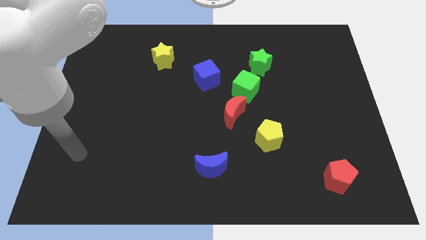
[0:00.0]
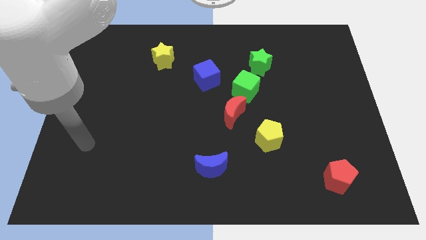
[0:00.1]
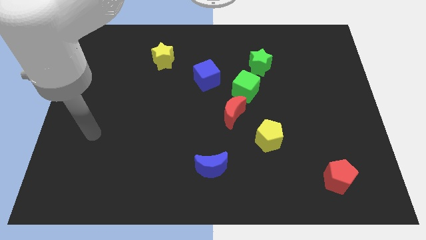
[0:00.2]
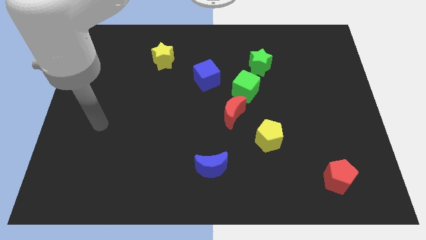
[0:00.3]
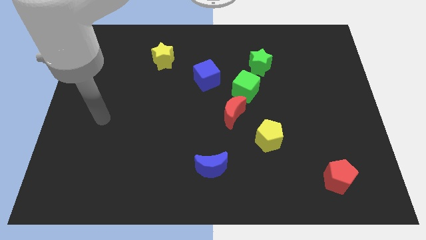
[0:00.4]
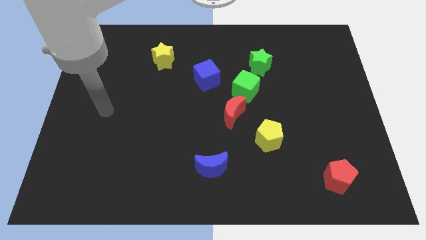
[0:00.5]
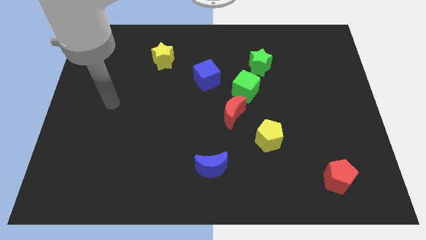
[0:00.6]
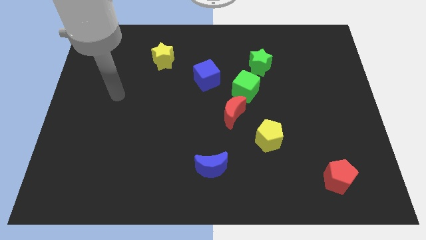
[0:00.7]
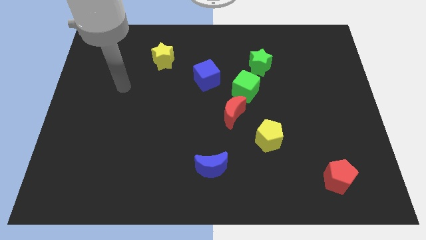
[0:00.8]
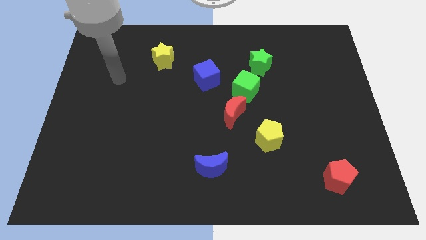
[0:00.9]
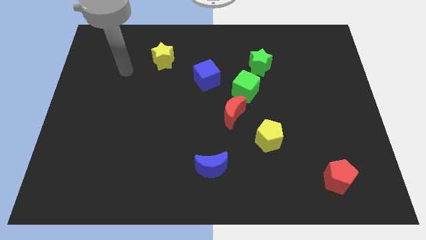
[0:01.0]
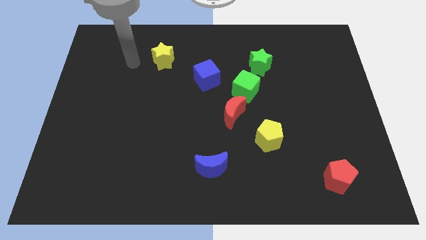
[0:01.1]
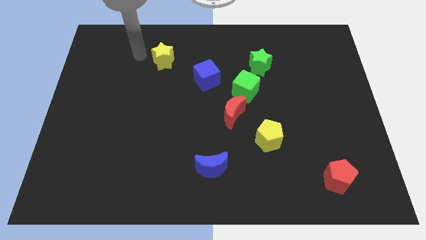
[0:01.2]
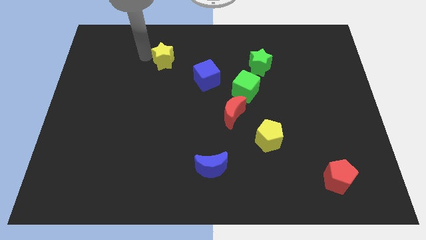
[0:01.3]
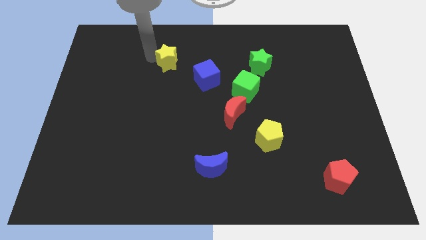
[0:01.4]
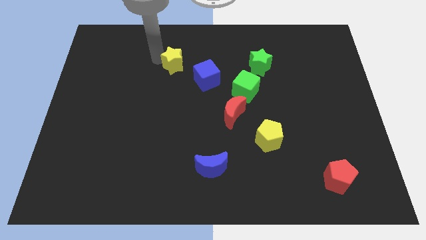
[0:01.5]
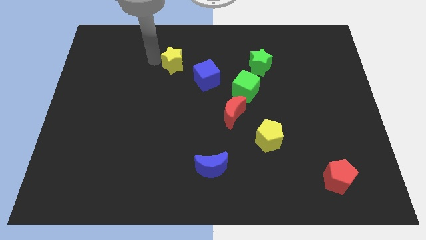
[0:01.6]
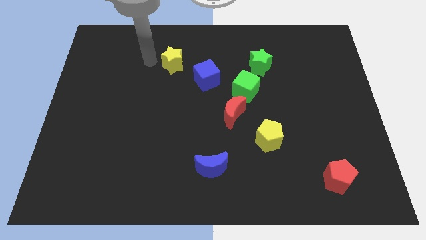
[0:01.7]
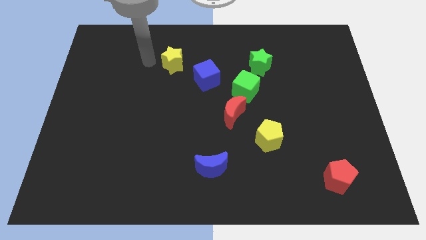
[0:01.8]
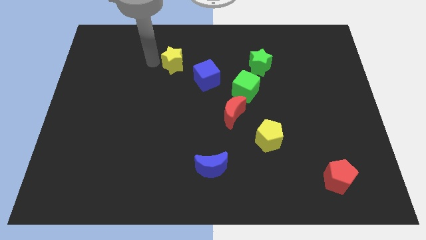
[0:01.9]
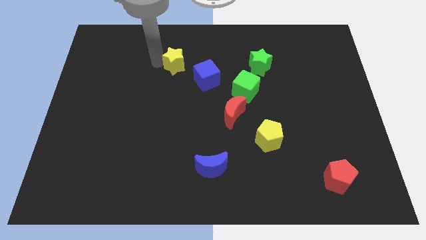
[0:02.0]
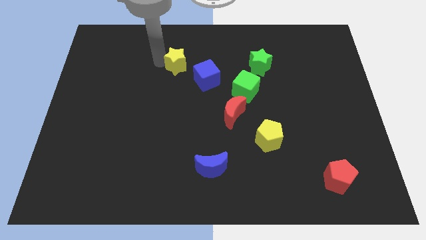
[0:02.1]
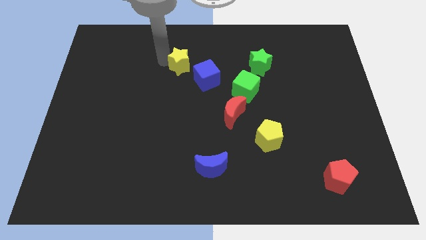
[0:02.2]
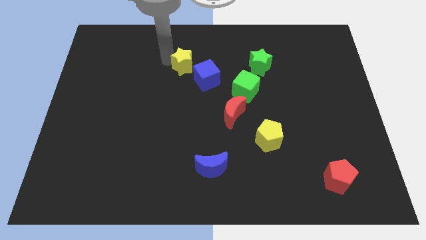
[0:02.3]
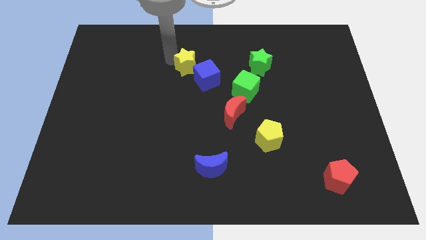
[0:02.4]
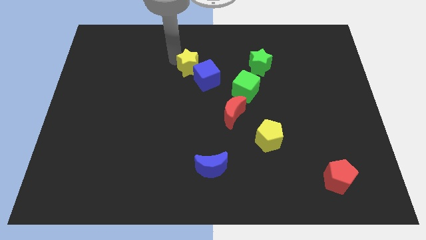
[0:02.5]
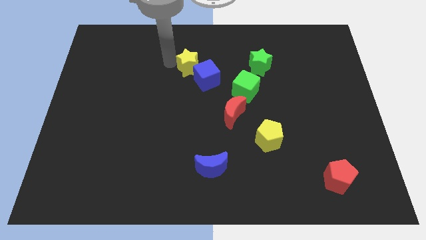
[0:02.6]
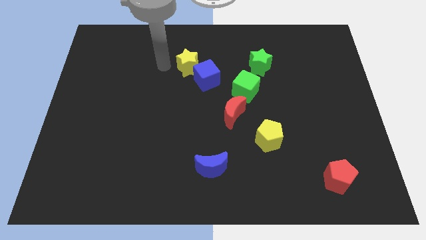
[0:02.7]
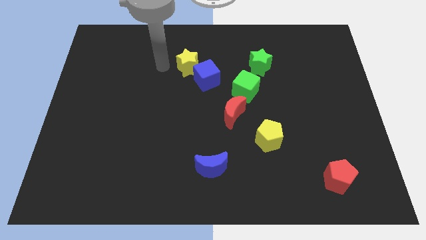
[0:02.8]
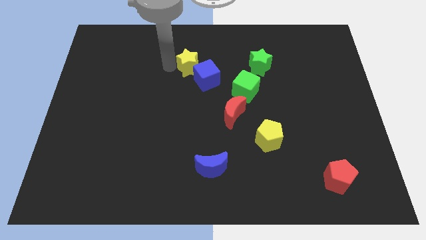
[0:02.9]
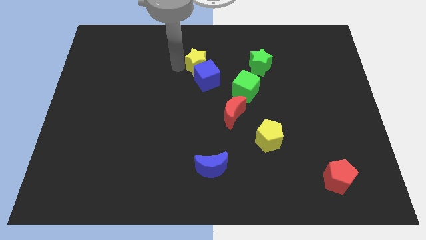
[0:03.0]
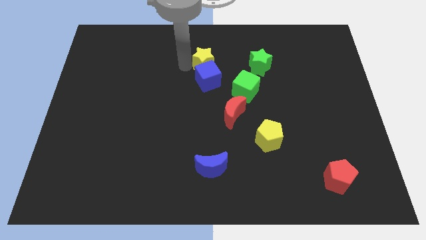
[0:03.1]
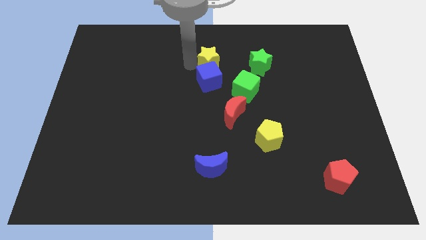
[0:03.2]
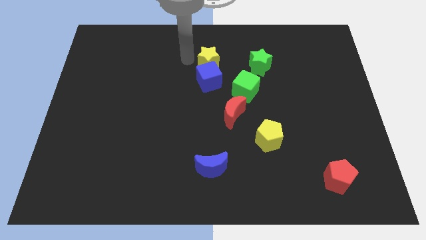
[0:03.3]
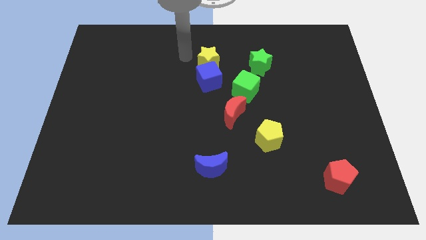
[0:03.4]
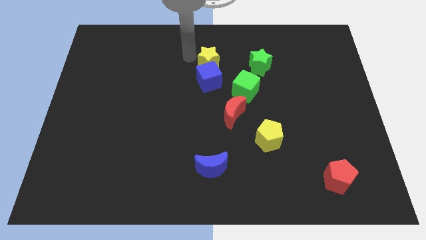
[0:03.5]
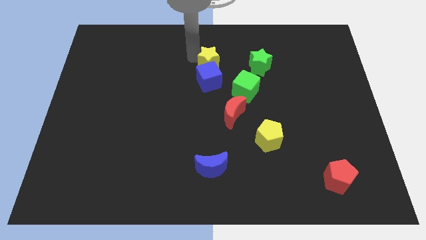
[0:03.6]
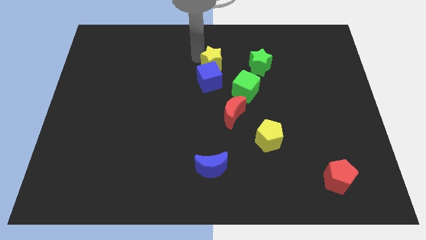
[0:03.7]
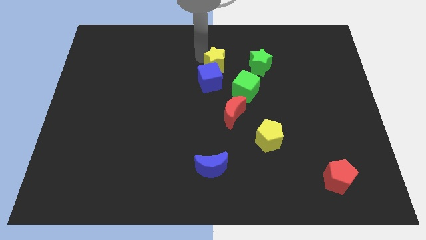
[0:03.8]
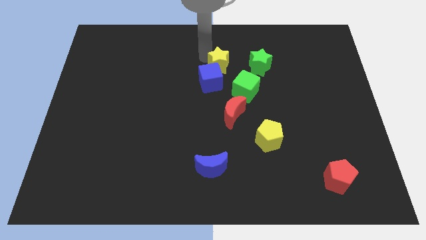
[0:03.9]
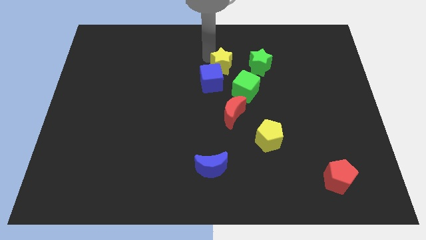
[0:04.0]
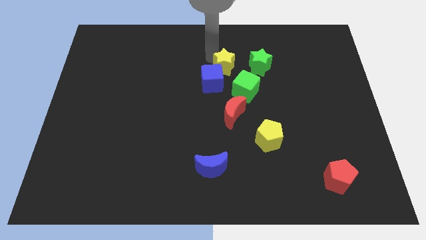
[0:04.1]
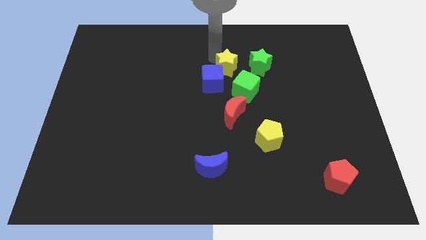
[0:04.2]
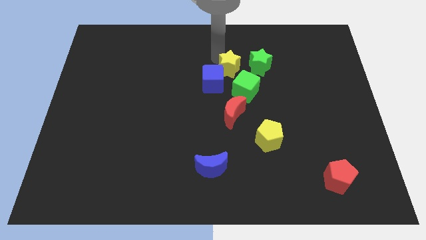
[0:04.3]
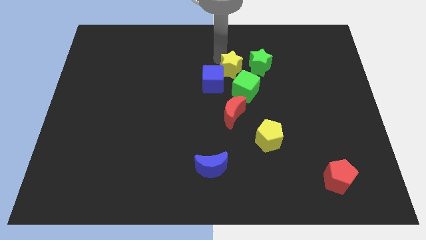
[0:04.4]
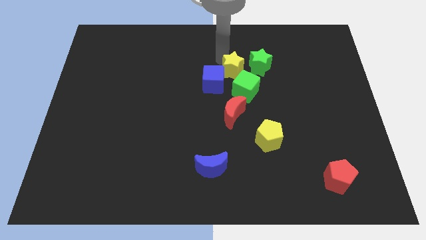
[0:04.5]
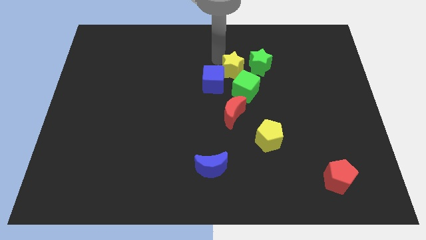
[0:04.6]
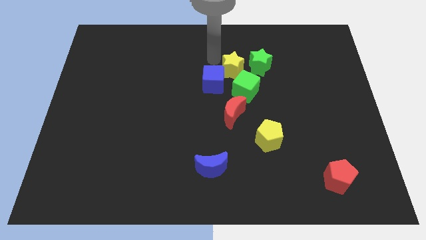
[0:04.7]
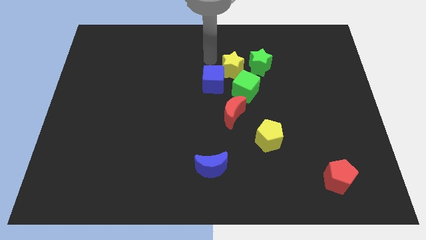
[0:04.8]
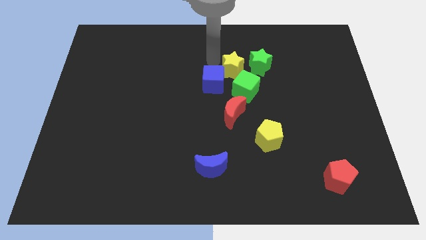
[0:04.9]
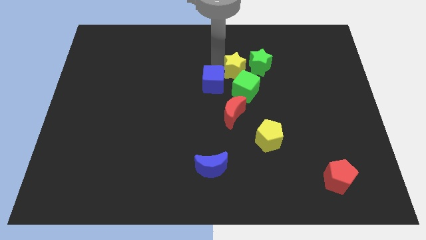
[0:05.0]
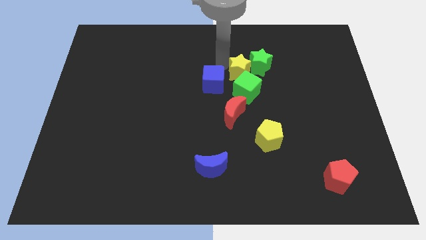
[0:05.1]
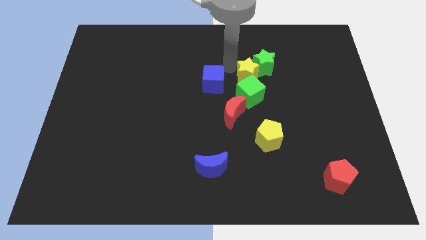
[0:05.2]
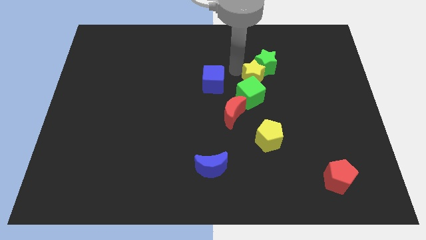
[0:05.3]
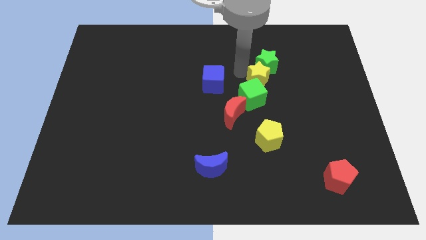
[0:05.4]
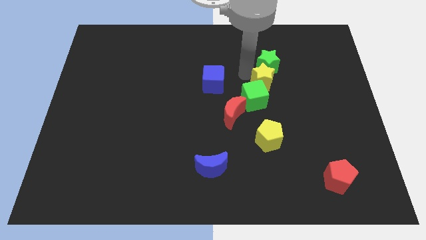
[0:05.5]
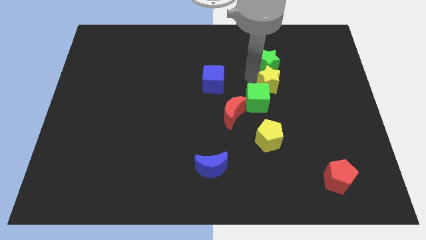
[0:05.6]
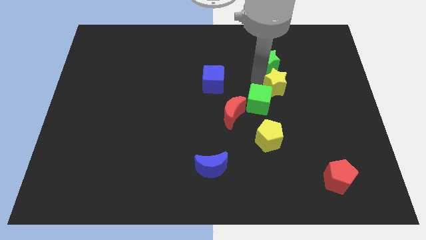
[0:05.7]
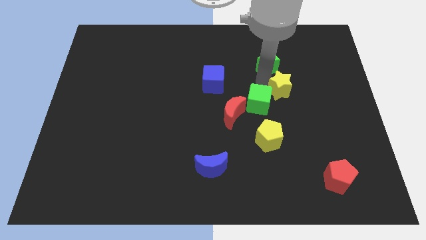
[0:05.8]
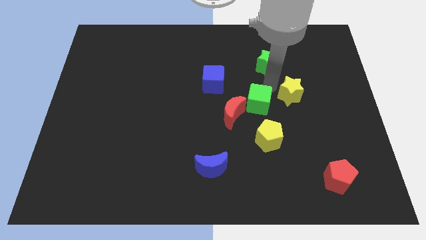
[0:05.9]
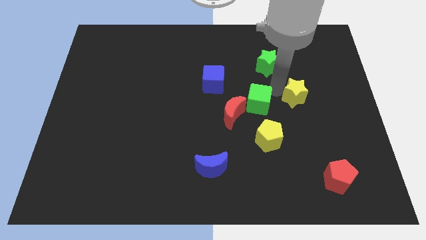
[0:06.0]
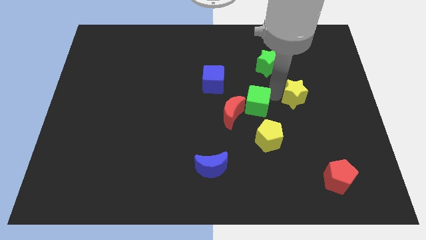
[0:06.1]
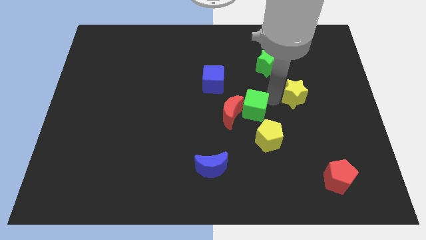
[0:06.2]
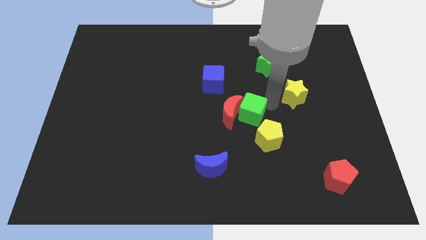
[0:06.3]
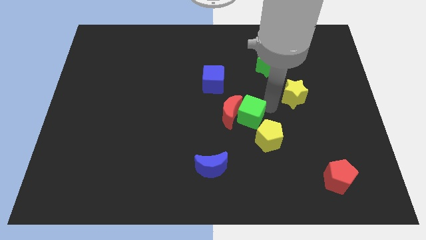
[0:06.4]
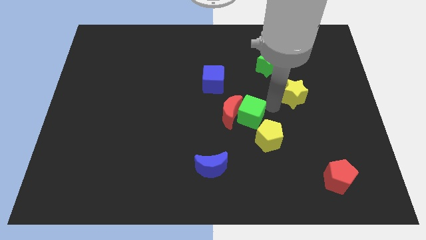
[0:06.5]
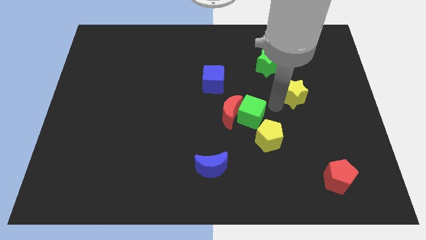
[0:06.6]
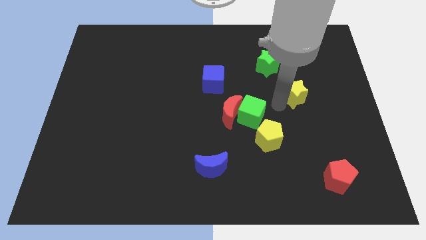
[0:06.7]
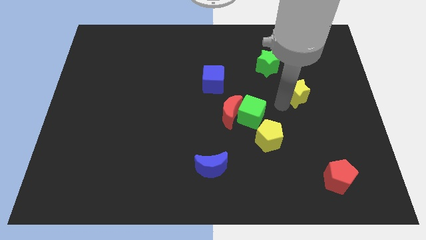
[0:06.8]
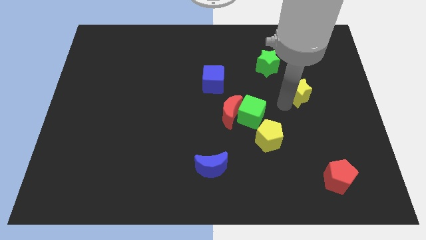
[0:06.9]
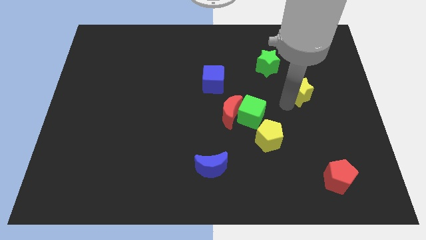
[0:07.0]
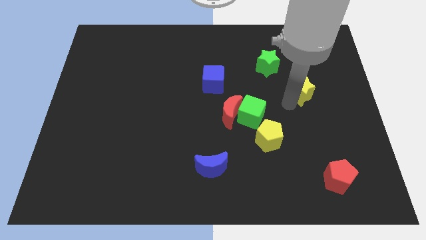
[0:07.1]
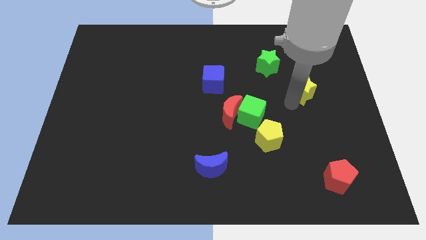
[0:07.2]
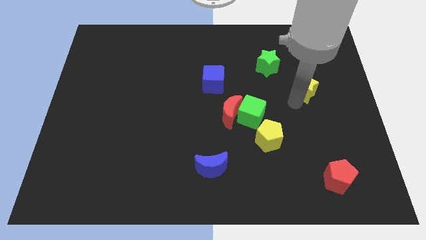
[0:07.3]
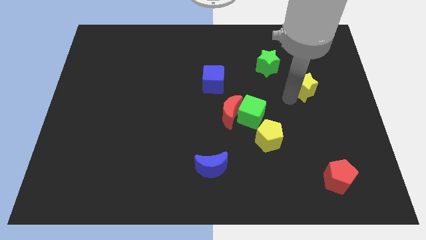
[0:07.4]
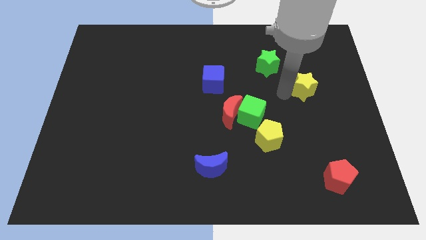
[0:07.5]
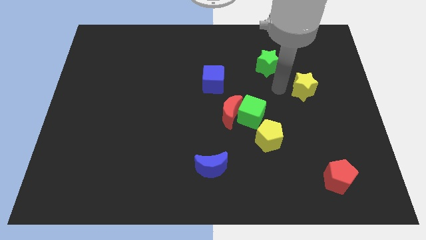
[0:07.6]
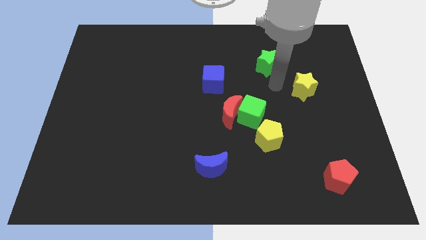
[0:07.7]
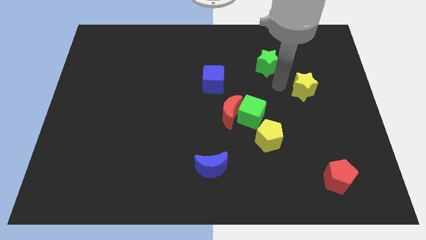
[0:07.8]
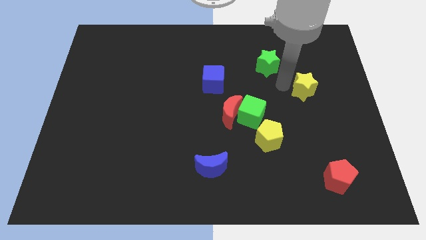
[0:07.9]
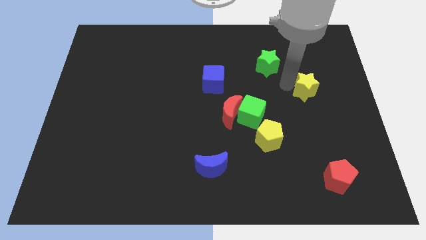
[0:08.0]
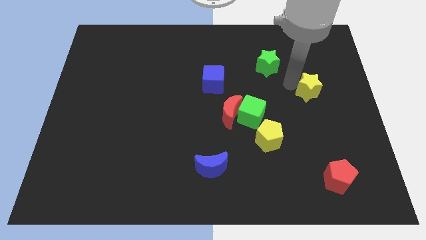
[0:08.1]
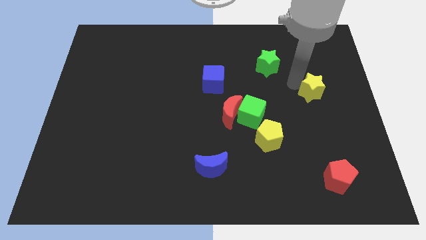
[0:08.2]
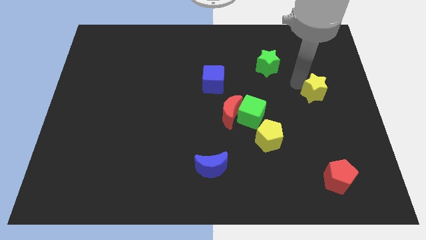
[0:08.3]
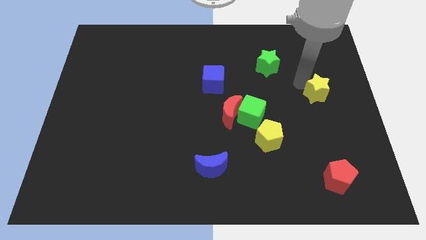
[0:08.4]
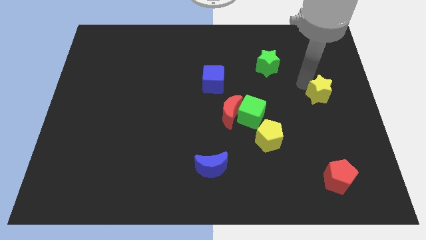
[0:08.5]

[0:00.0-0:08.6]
push the yellow star to the right side
